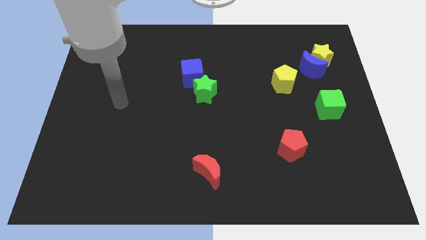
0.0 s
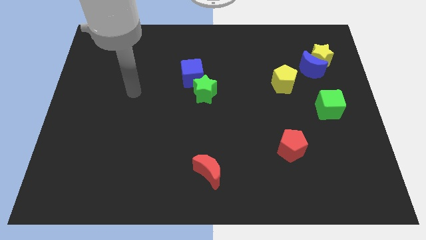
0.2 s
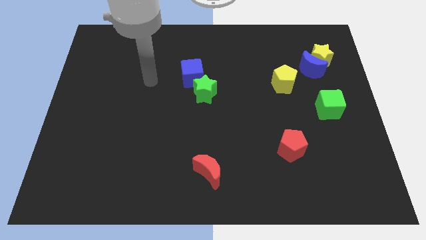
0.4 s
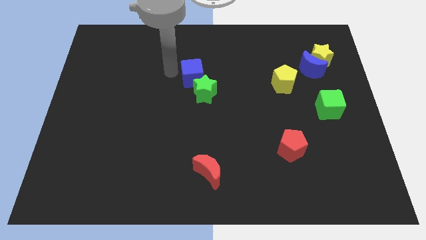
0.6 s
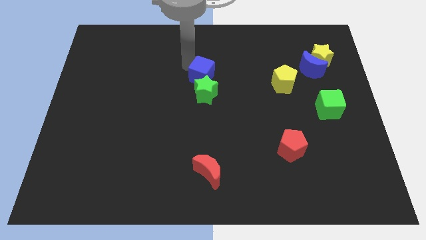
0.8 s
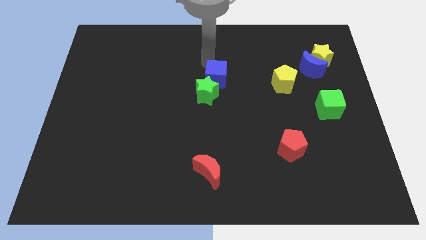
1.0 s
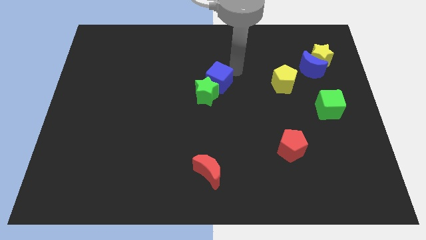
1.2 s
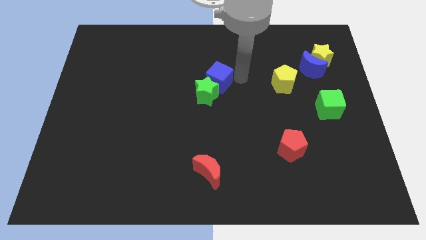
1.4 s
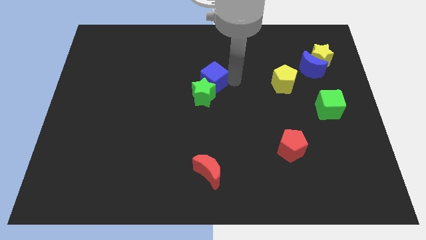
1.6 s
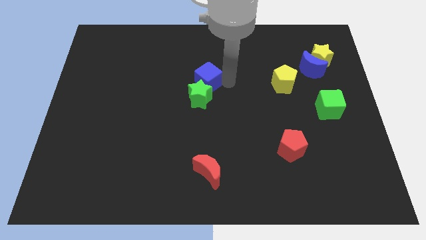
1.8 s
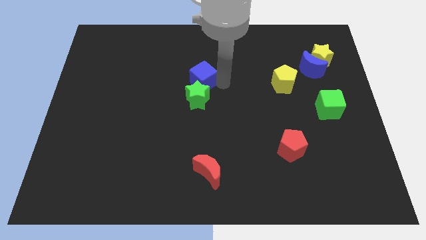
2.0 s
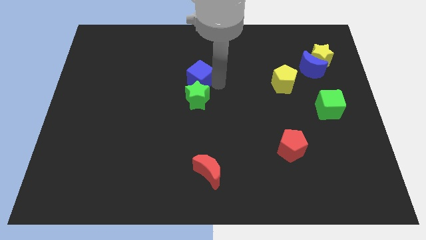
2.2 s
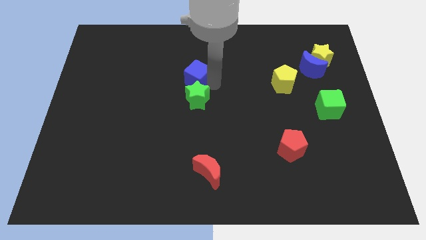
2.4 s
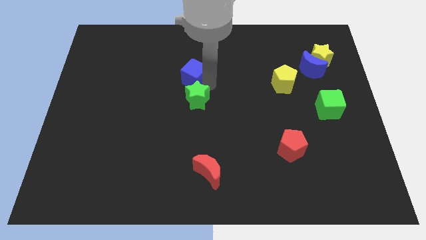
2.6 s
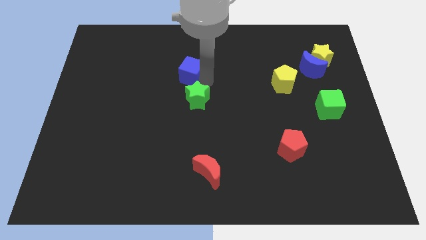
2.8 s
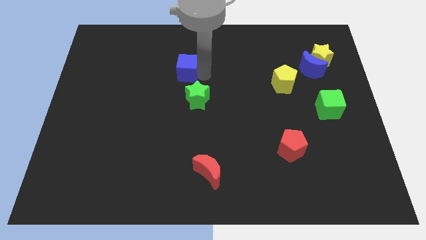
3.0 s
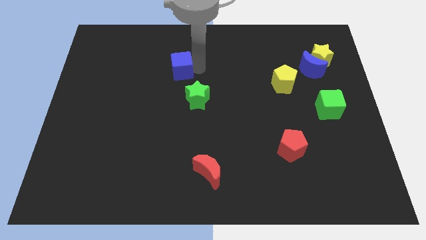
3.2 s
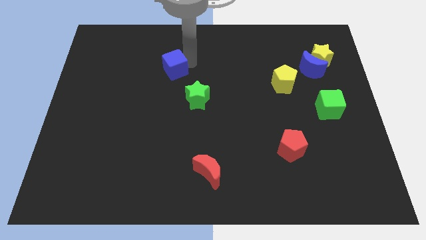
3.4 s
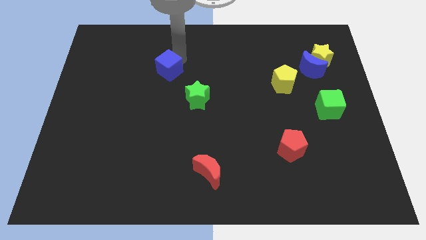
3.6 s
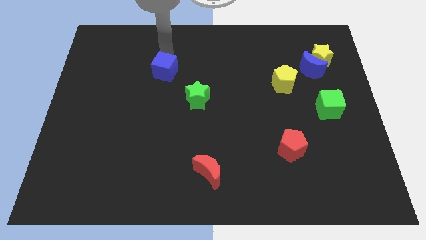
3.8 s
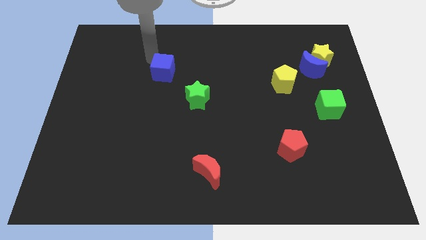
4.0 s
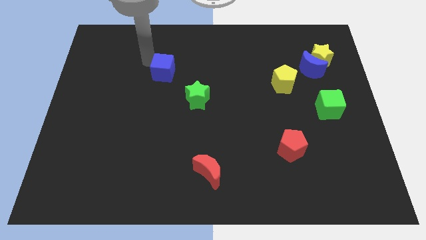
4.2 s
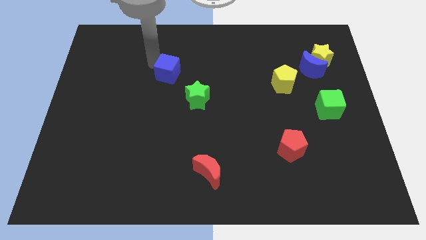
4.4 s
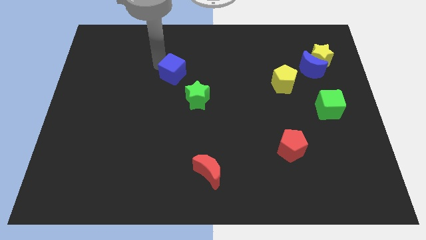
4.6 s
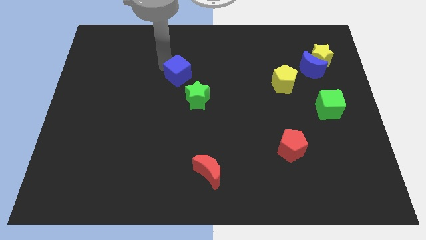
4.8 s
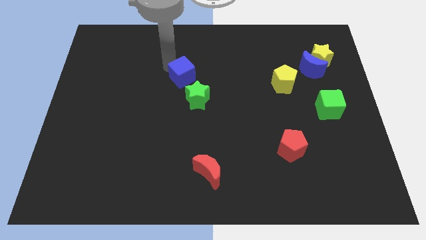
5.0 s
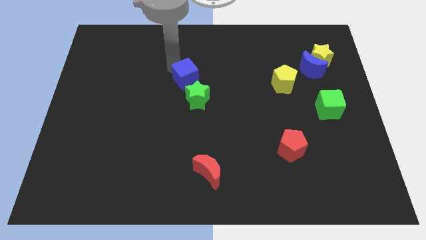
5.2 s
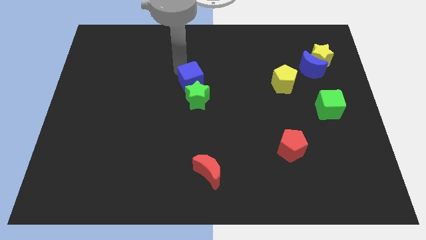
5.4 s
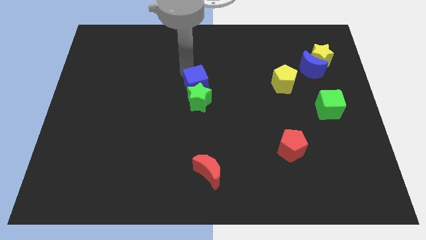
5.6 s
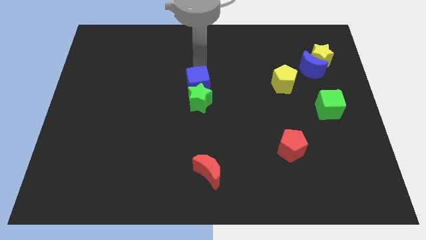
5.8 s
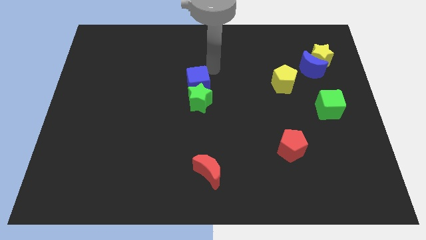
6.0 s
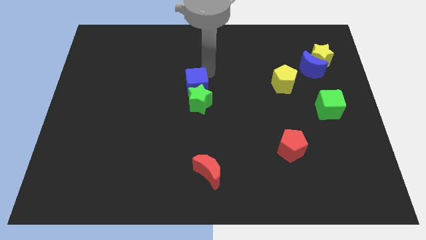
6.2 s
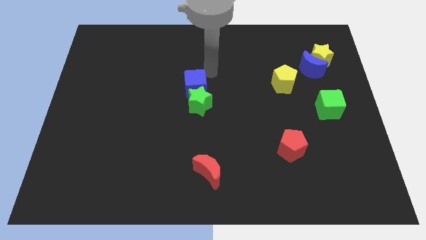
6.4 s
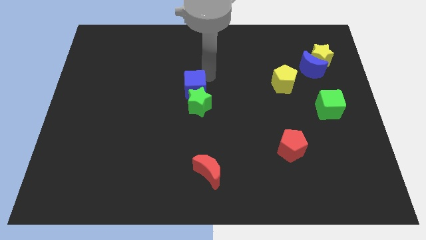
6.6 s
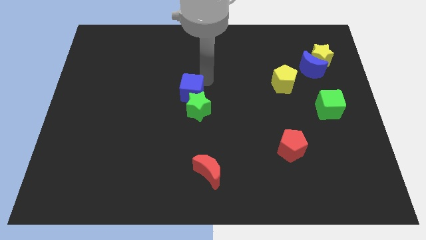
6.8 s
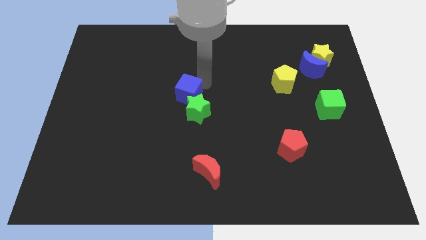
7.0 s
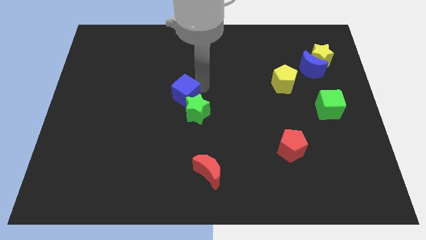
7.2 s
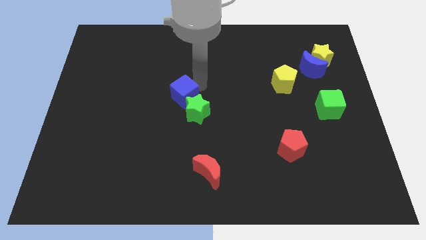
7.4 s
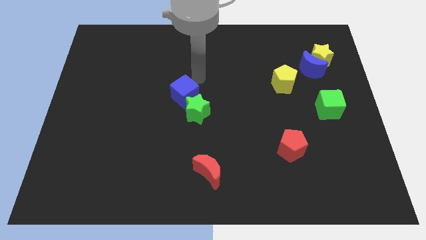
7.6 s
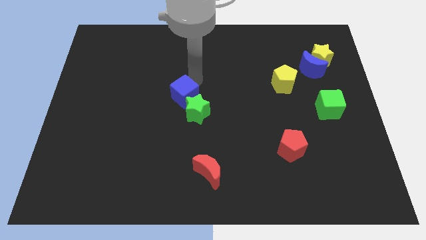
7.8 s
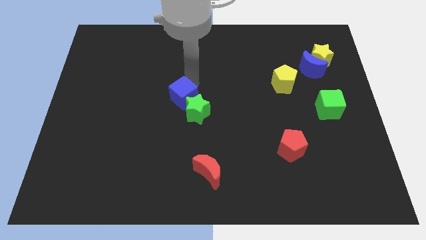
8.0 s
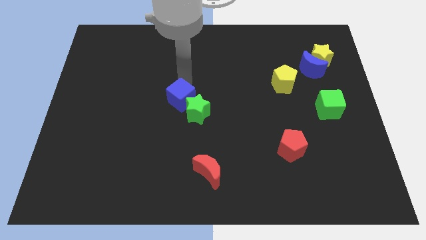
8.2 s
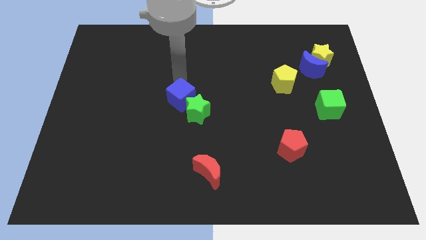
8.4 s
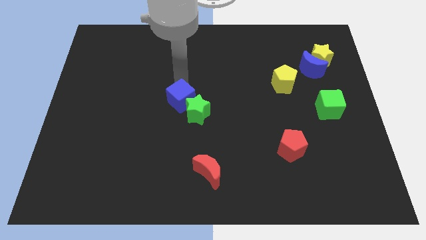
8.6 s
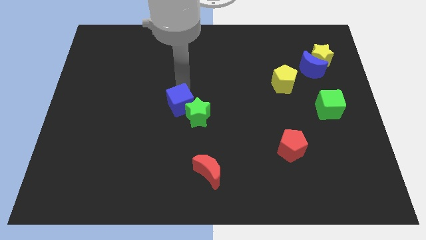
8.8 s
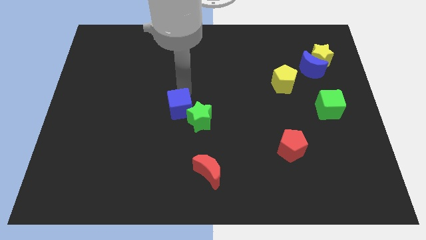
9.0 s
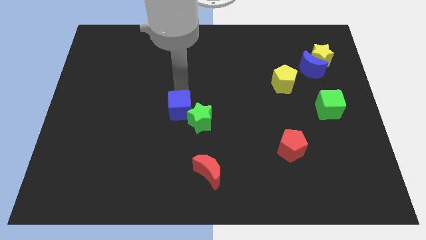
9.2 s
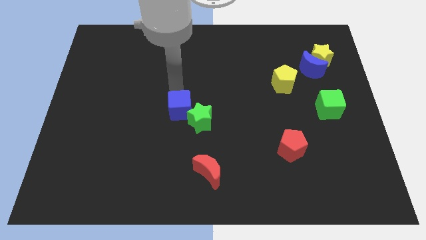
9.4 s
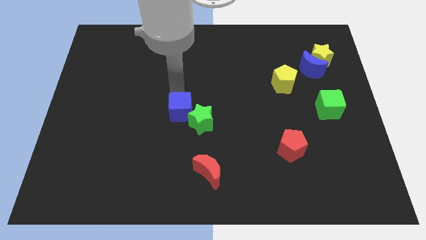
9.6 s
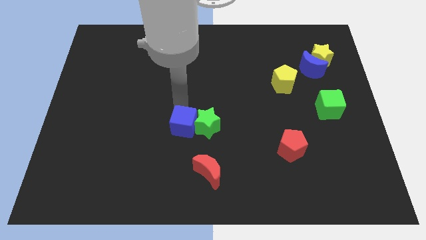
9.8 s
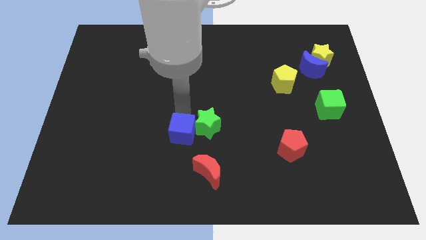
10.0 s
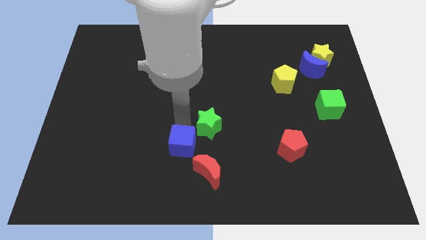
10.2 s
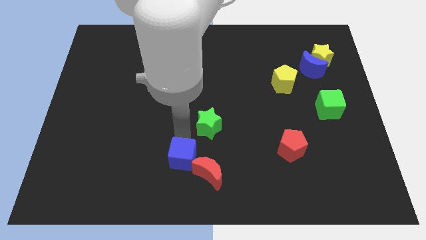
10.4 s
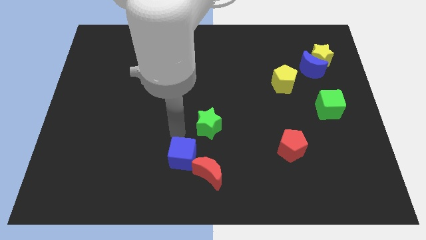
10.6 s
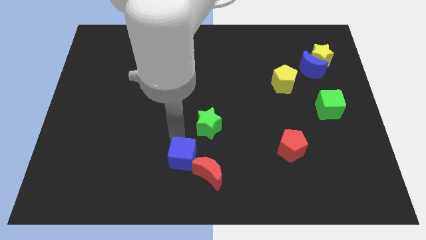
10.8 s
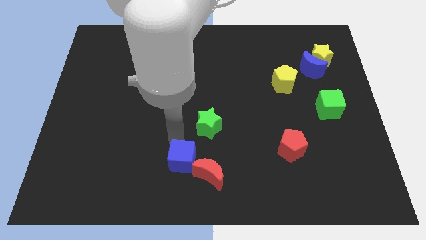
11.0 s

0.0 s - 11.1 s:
slide the blue cube to the bottom side

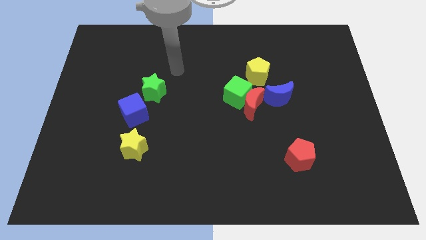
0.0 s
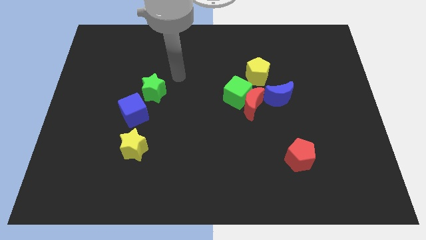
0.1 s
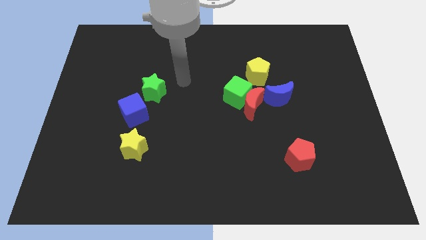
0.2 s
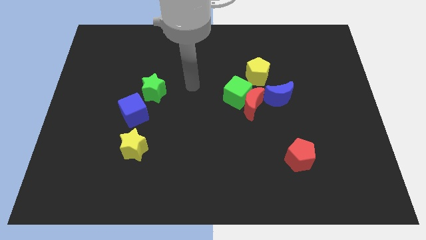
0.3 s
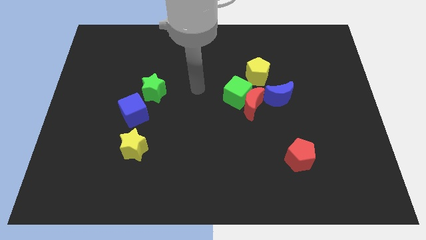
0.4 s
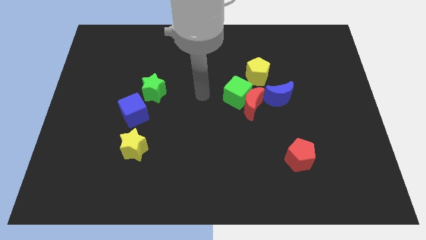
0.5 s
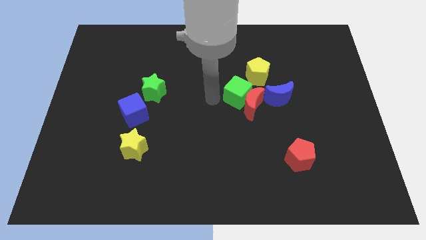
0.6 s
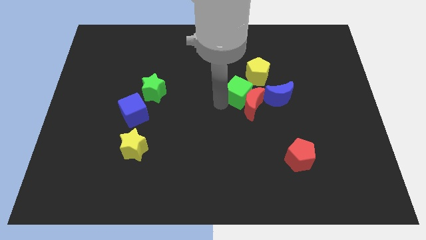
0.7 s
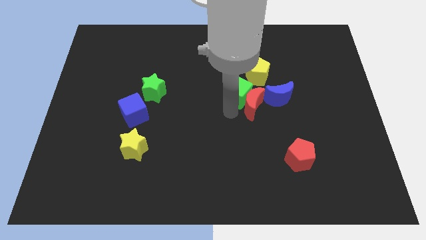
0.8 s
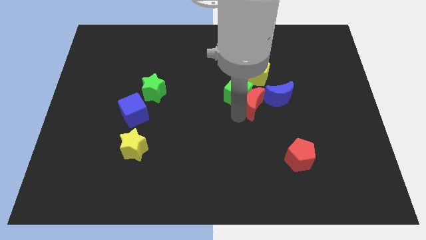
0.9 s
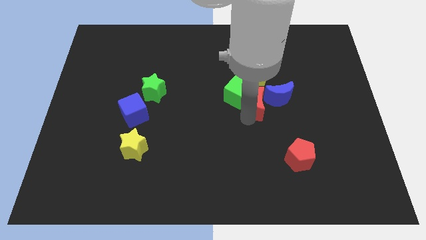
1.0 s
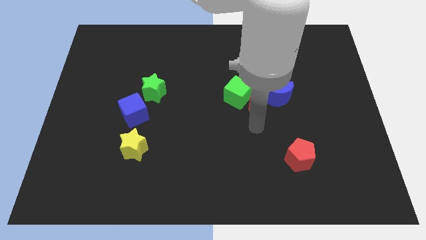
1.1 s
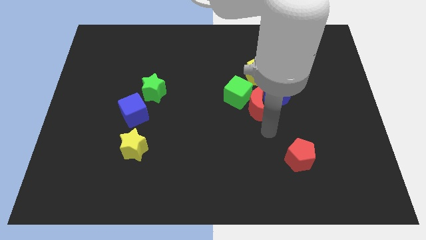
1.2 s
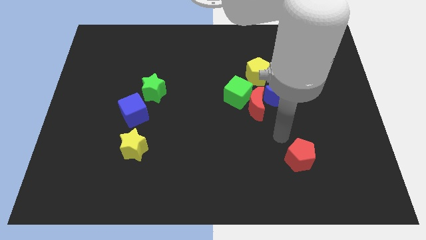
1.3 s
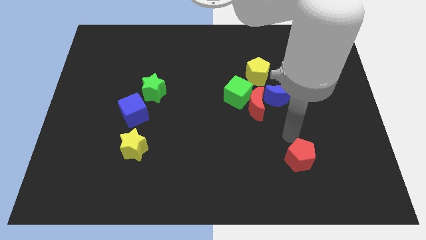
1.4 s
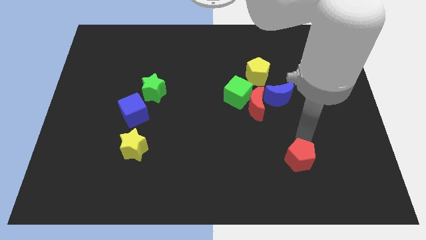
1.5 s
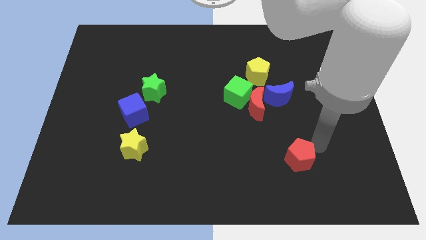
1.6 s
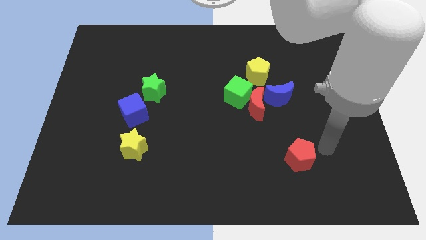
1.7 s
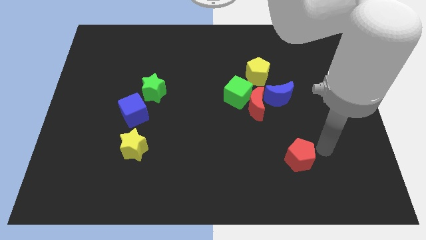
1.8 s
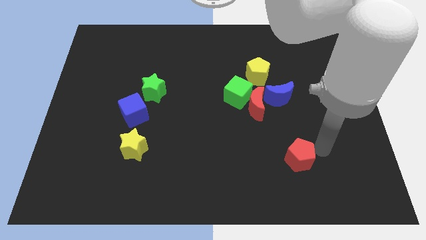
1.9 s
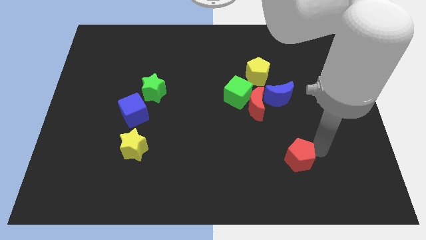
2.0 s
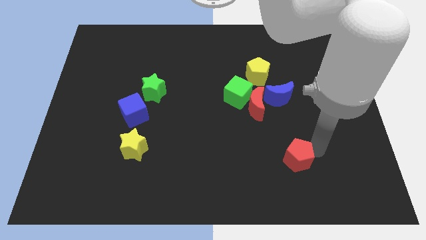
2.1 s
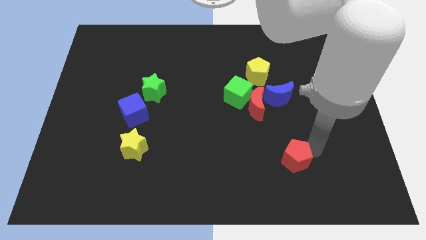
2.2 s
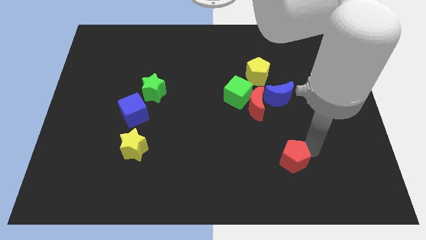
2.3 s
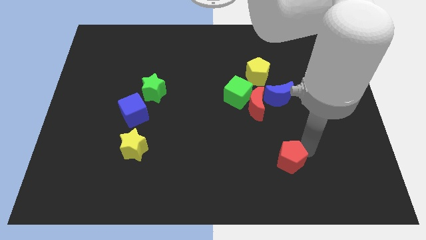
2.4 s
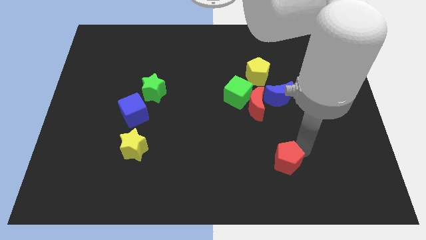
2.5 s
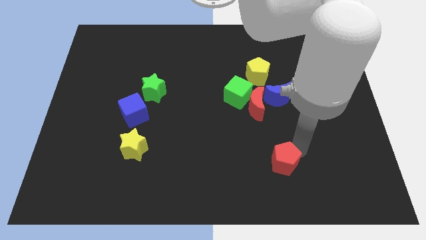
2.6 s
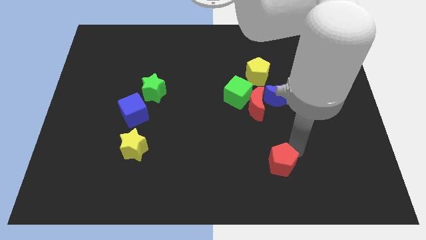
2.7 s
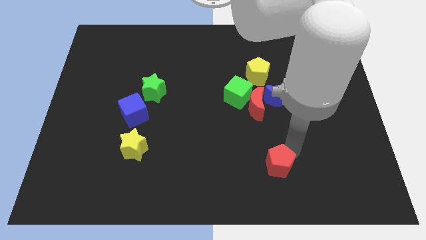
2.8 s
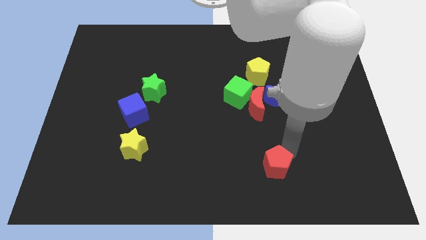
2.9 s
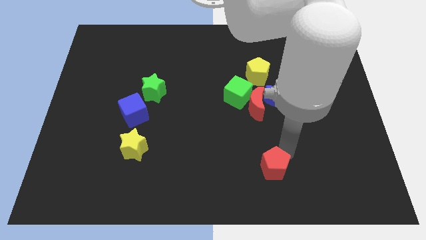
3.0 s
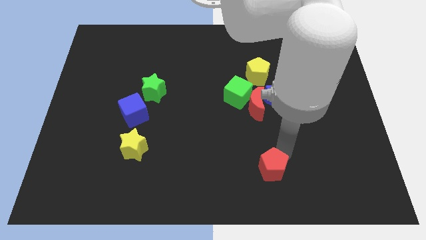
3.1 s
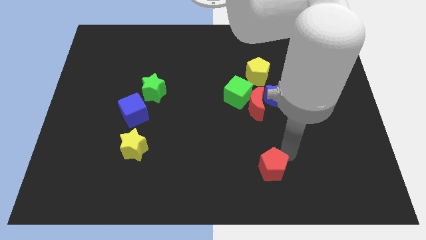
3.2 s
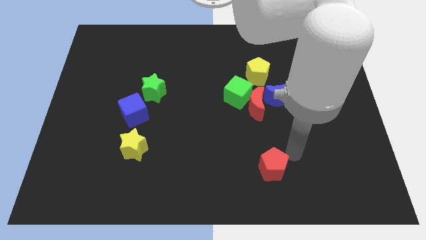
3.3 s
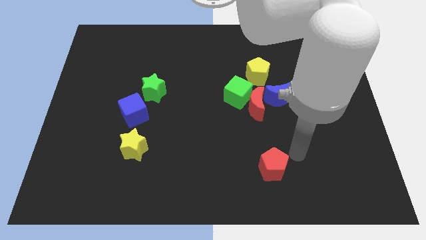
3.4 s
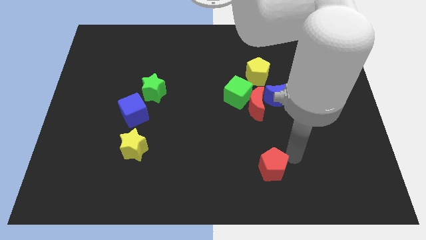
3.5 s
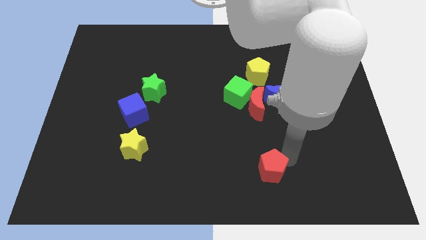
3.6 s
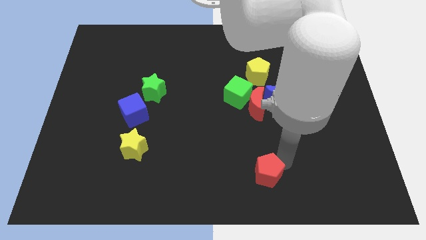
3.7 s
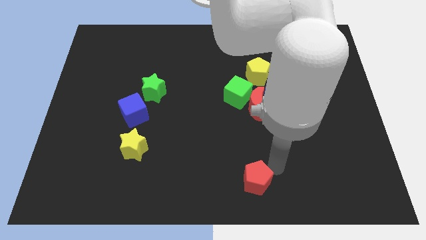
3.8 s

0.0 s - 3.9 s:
put the red pentagon to the bottom
